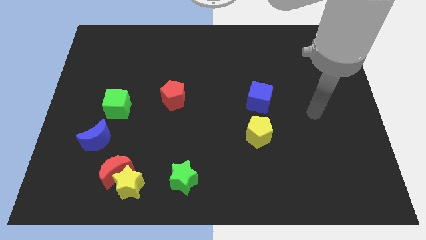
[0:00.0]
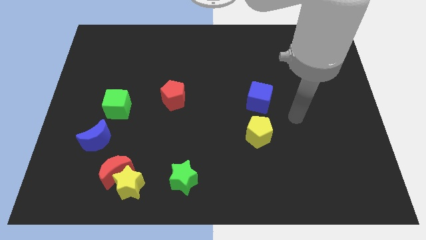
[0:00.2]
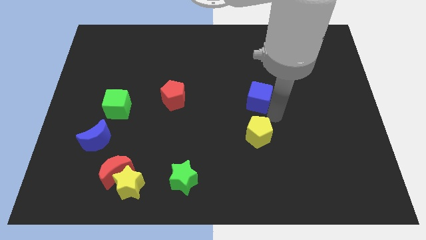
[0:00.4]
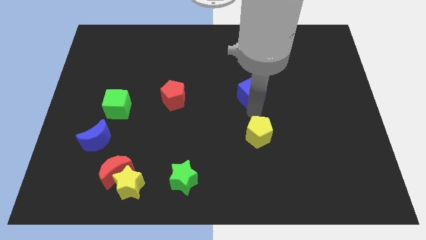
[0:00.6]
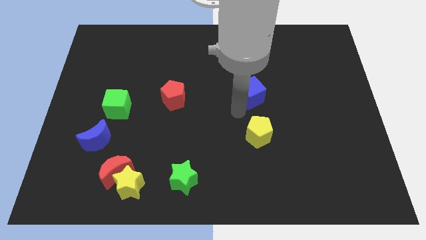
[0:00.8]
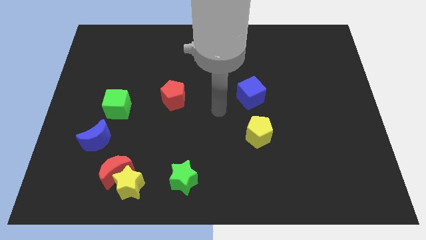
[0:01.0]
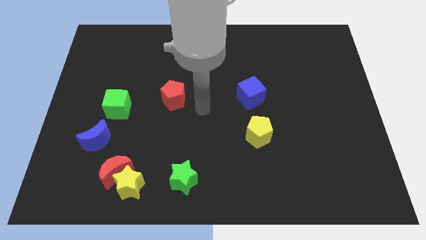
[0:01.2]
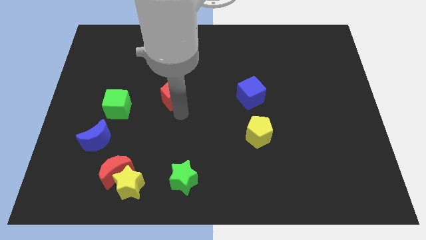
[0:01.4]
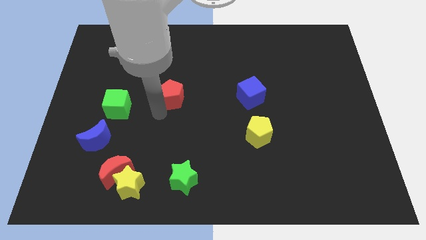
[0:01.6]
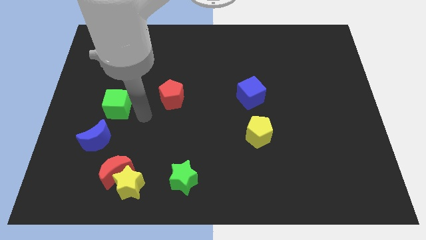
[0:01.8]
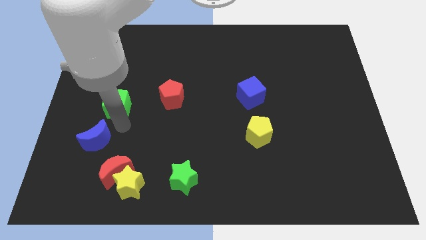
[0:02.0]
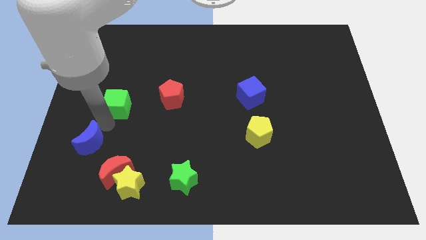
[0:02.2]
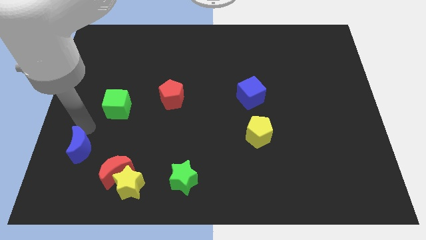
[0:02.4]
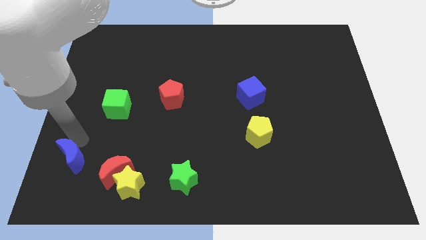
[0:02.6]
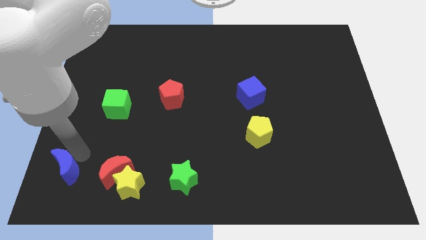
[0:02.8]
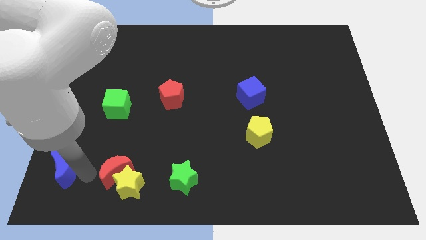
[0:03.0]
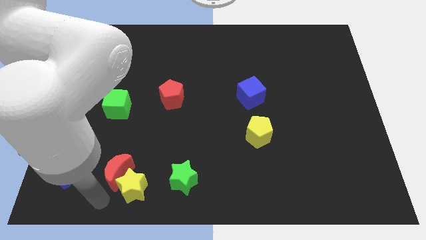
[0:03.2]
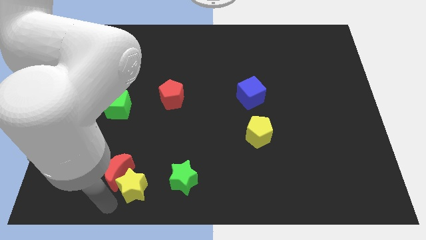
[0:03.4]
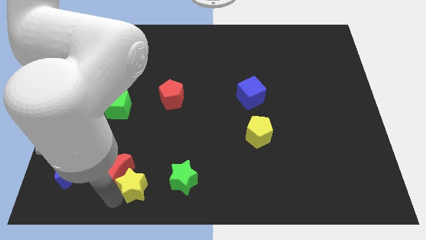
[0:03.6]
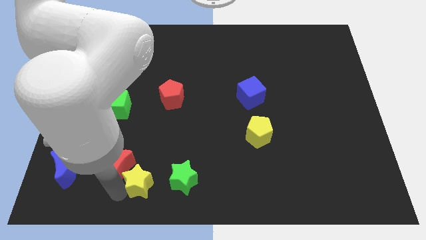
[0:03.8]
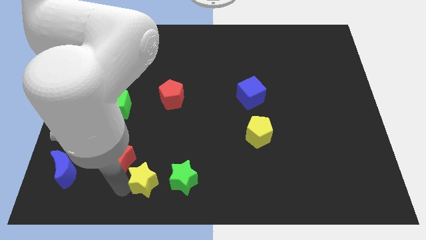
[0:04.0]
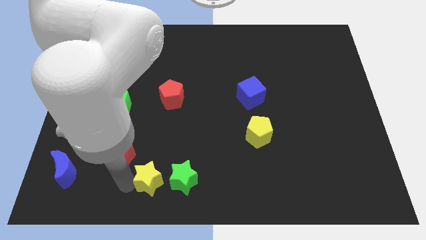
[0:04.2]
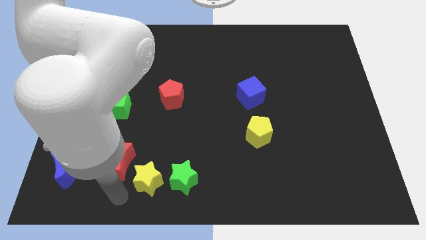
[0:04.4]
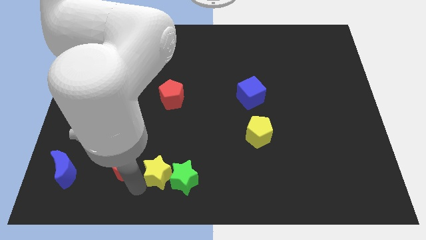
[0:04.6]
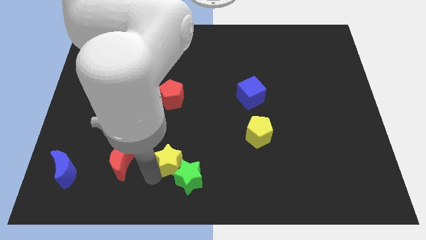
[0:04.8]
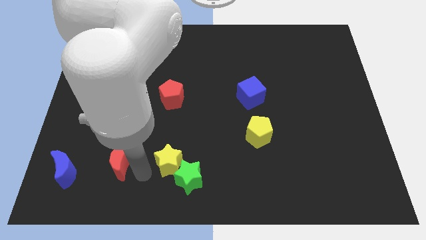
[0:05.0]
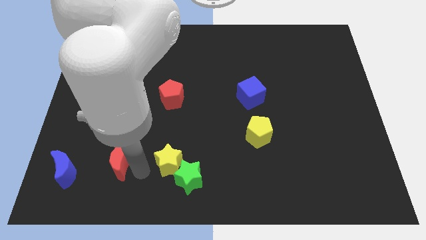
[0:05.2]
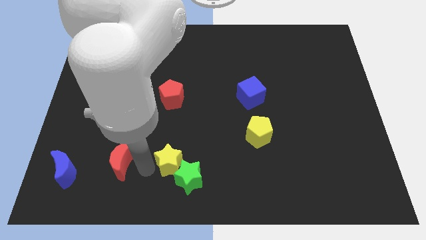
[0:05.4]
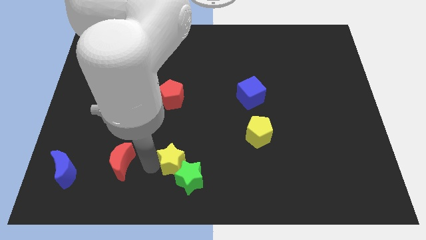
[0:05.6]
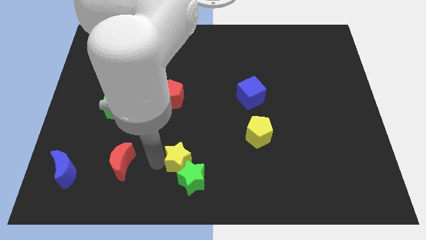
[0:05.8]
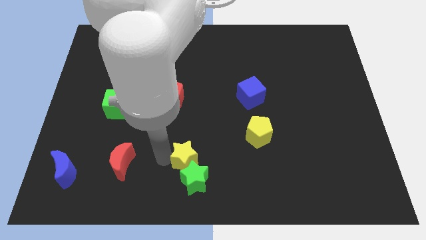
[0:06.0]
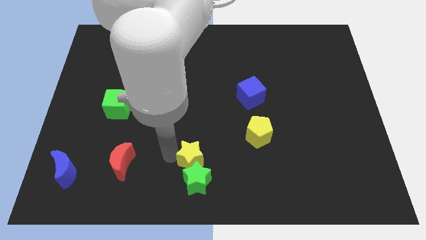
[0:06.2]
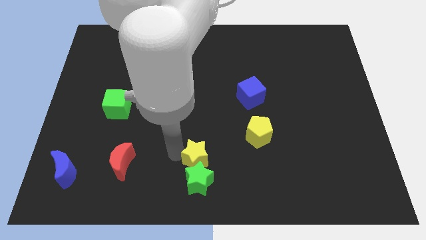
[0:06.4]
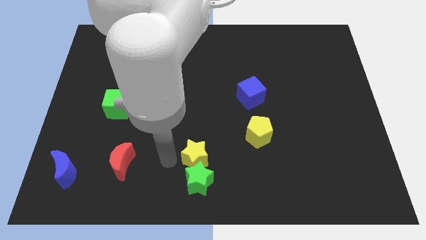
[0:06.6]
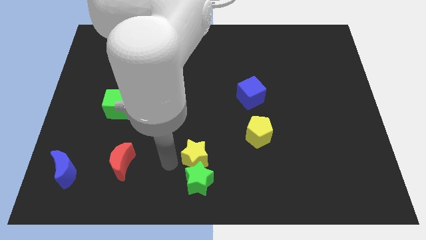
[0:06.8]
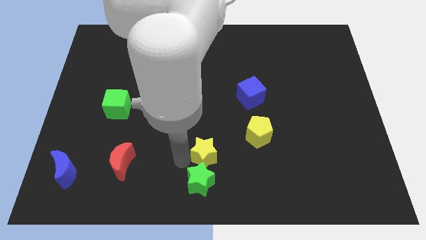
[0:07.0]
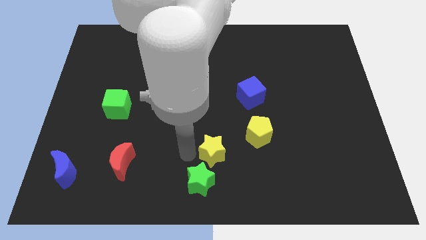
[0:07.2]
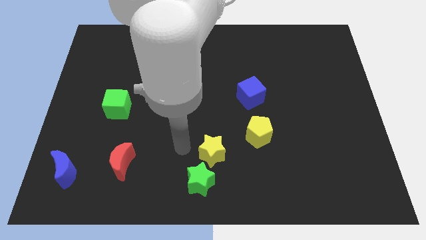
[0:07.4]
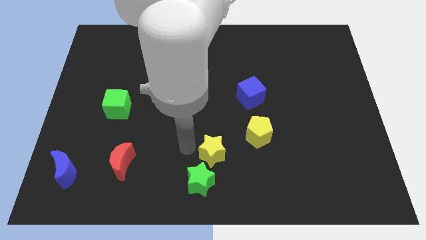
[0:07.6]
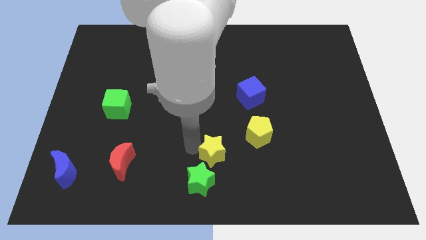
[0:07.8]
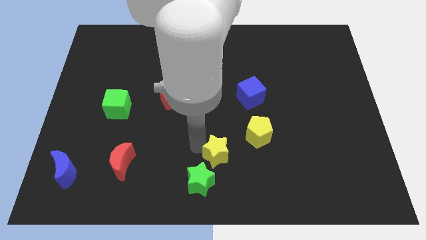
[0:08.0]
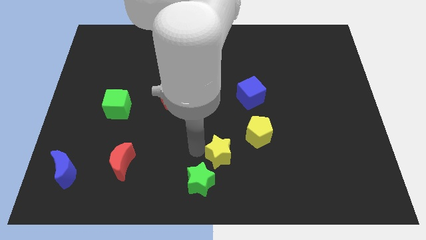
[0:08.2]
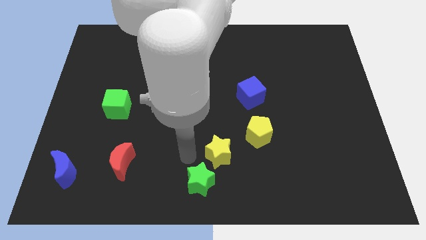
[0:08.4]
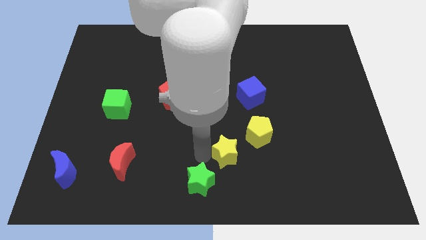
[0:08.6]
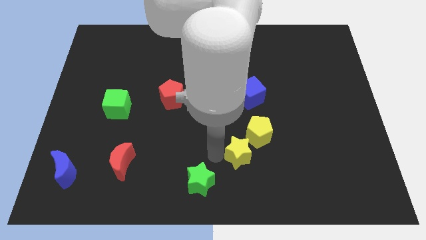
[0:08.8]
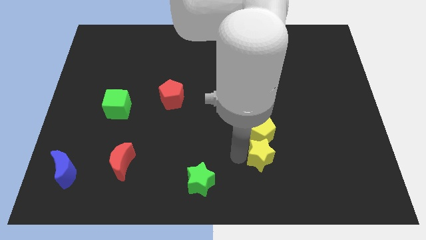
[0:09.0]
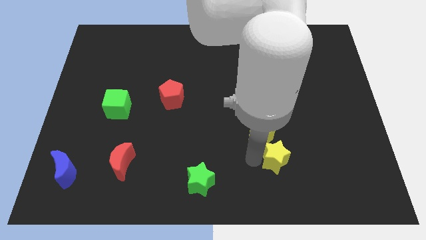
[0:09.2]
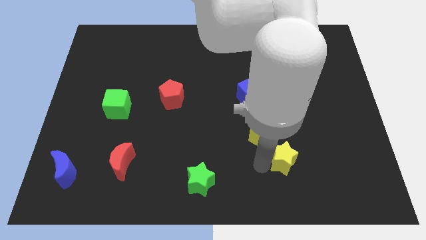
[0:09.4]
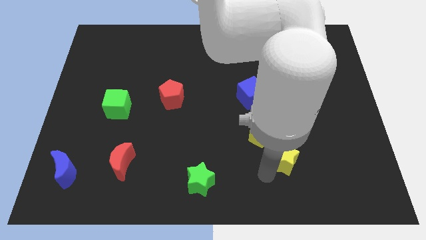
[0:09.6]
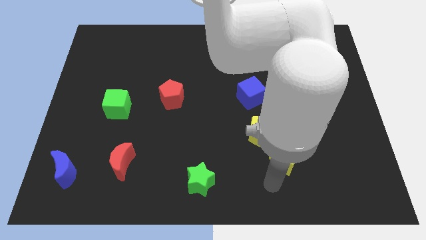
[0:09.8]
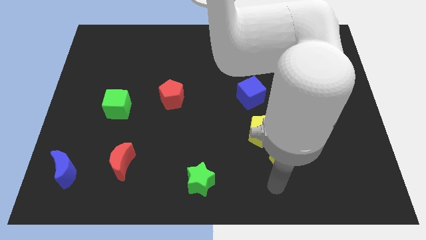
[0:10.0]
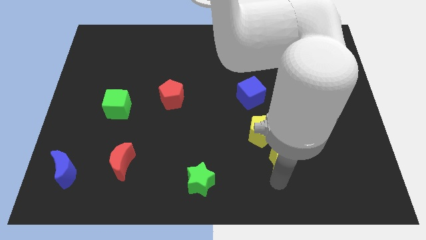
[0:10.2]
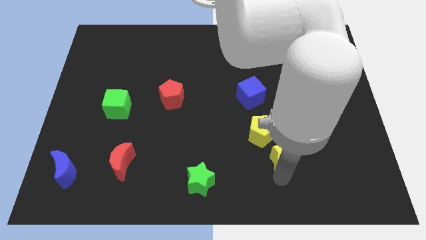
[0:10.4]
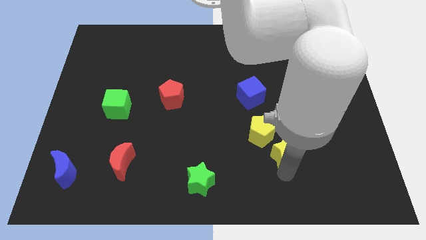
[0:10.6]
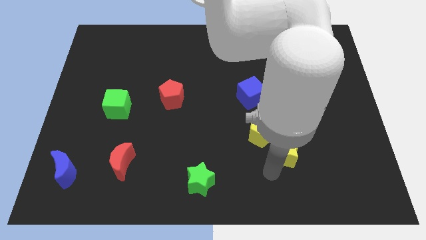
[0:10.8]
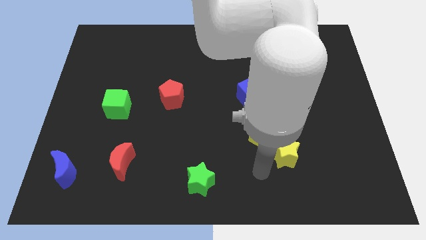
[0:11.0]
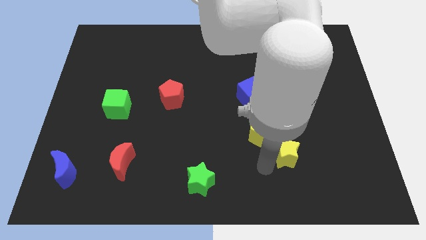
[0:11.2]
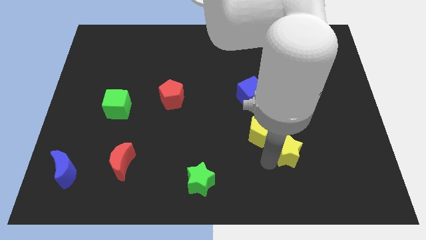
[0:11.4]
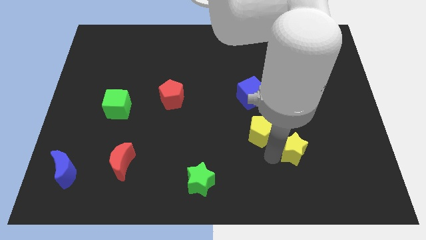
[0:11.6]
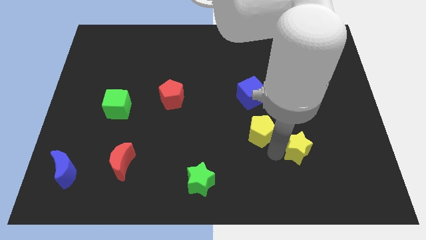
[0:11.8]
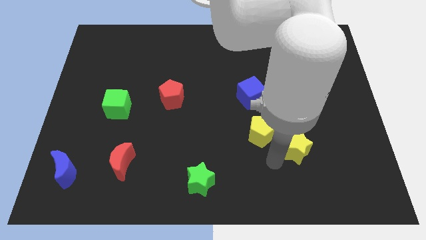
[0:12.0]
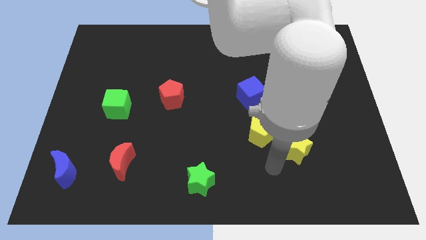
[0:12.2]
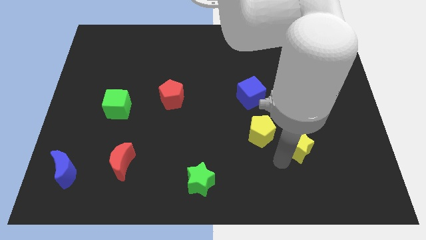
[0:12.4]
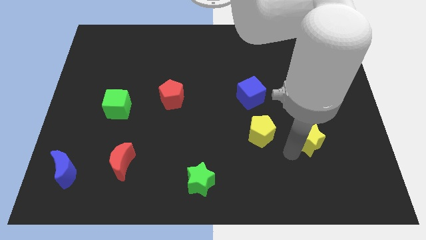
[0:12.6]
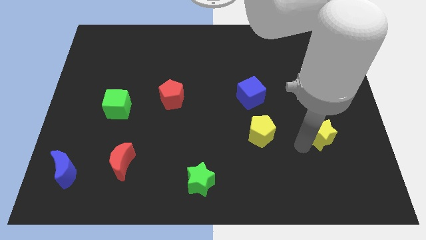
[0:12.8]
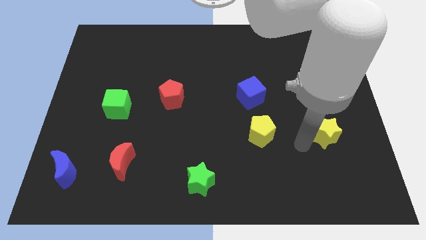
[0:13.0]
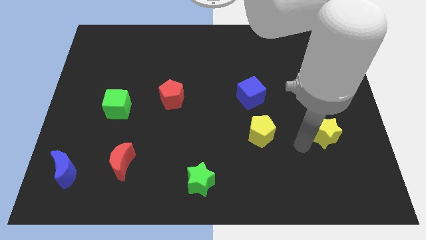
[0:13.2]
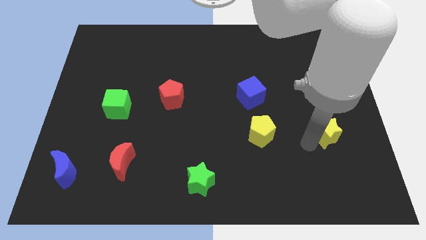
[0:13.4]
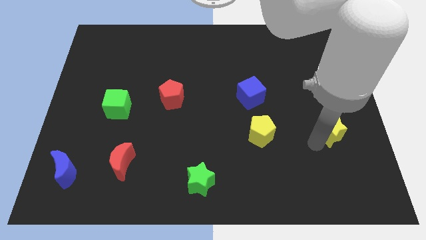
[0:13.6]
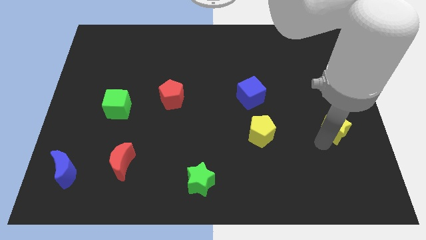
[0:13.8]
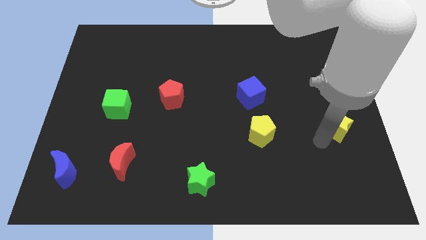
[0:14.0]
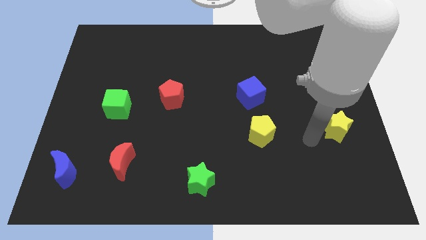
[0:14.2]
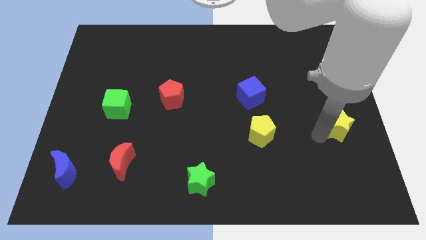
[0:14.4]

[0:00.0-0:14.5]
slide the yellow star to the right side of the board

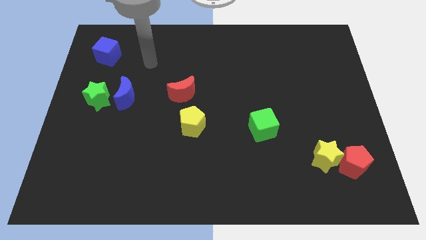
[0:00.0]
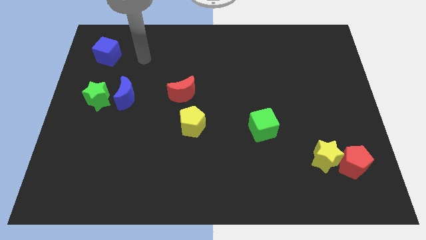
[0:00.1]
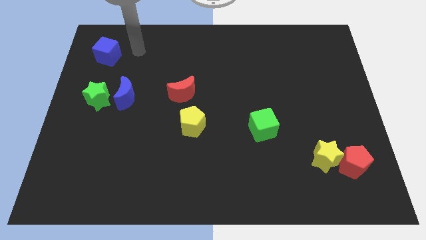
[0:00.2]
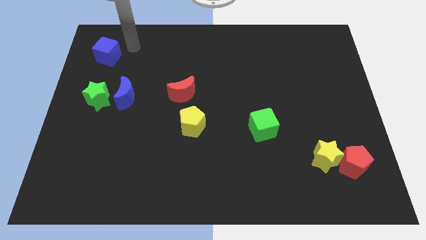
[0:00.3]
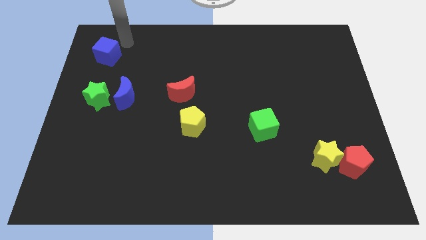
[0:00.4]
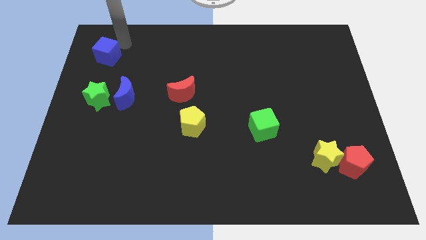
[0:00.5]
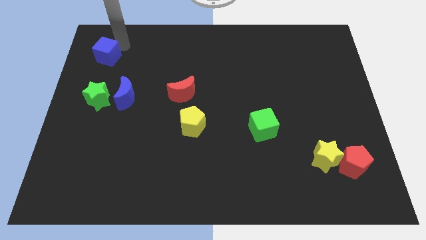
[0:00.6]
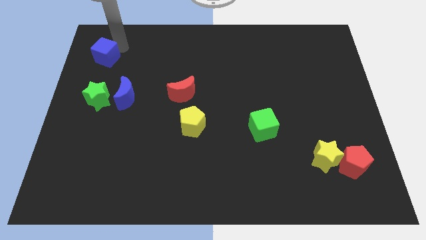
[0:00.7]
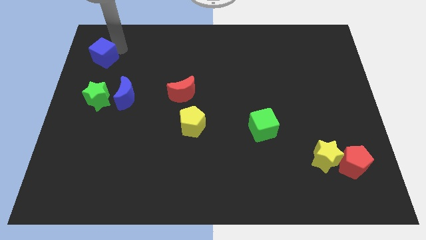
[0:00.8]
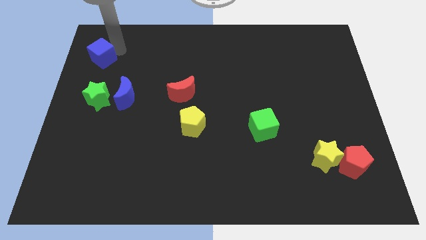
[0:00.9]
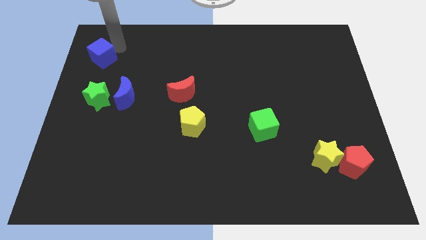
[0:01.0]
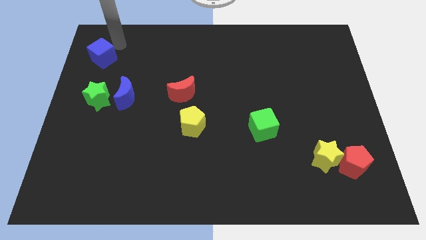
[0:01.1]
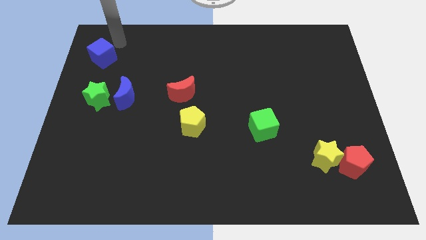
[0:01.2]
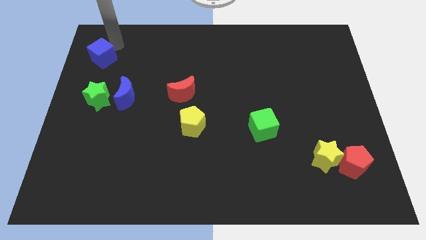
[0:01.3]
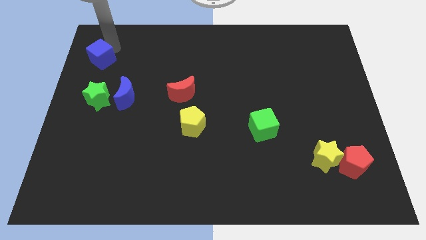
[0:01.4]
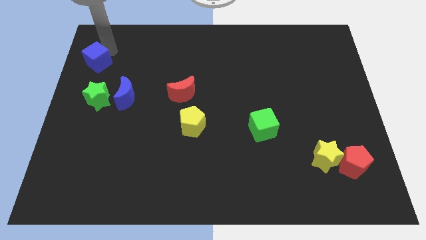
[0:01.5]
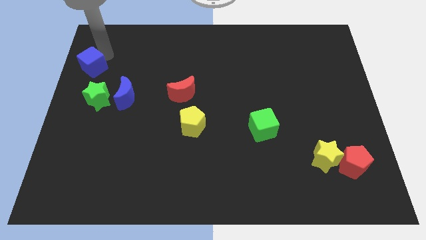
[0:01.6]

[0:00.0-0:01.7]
put the blue cube to the left side
